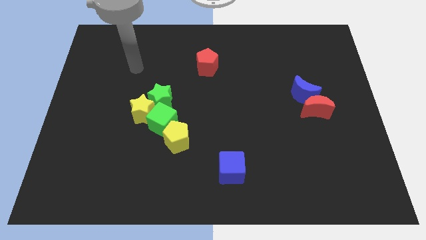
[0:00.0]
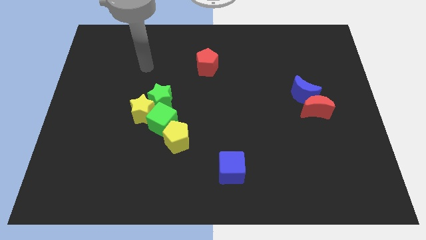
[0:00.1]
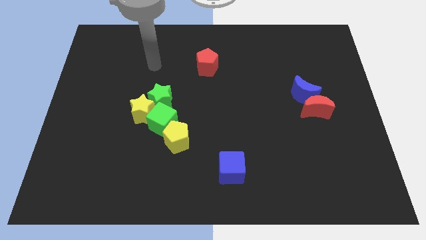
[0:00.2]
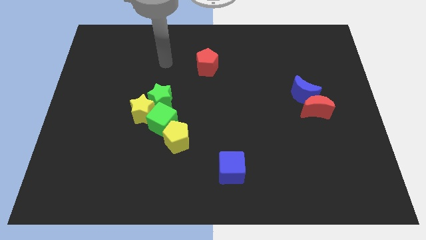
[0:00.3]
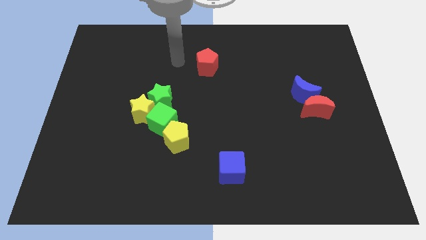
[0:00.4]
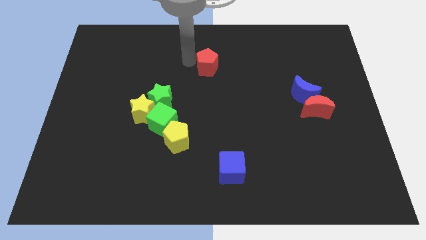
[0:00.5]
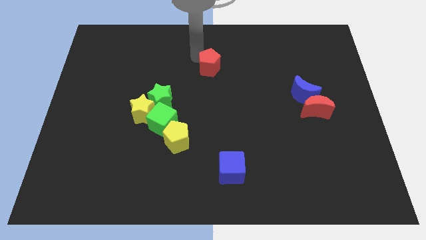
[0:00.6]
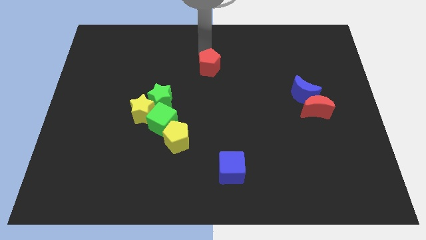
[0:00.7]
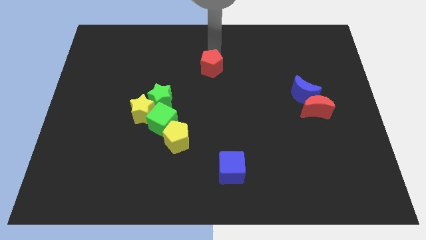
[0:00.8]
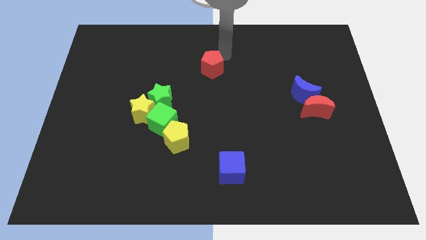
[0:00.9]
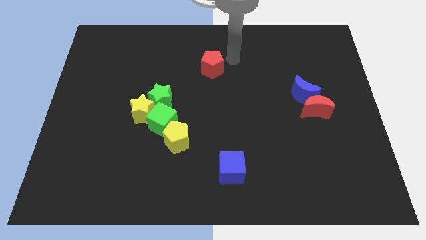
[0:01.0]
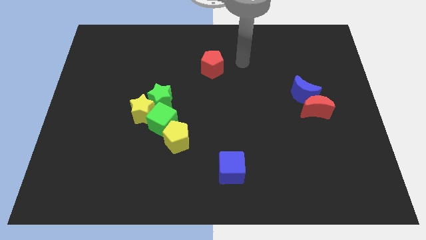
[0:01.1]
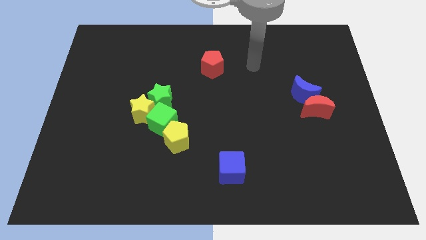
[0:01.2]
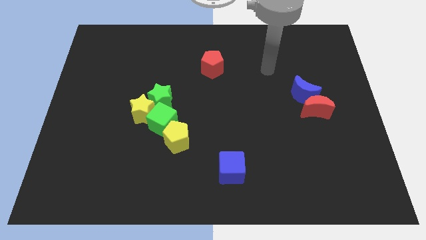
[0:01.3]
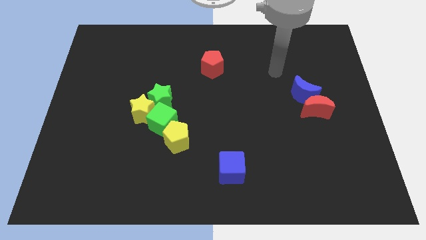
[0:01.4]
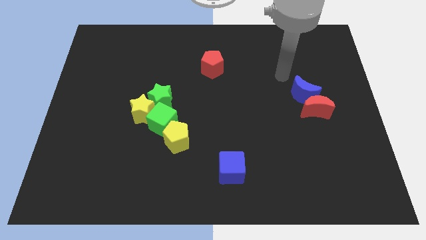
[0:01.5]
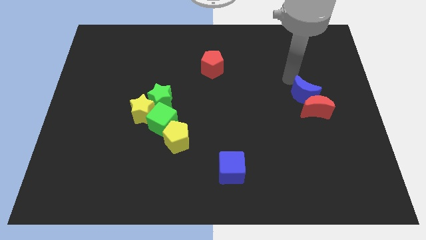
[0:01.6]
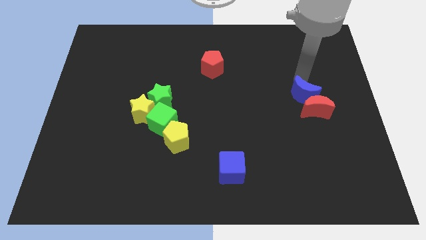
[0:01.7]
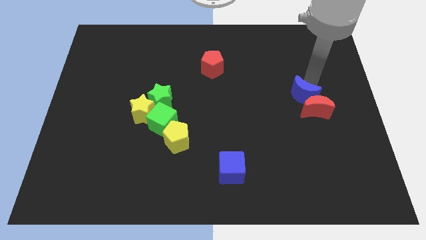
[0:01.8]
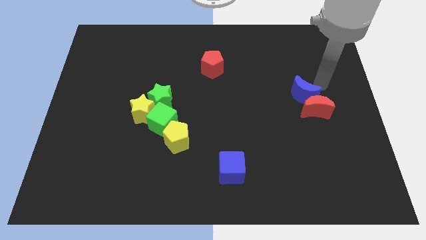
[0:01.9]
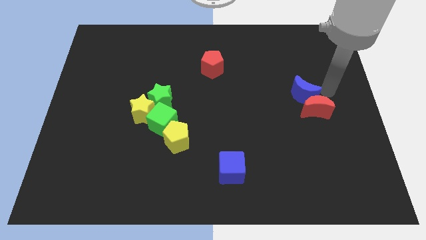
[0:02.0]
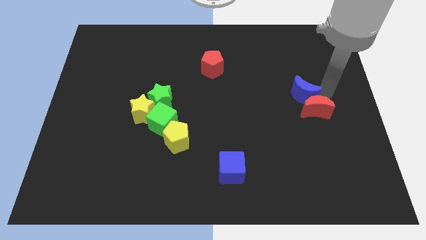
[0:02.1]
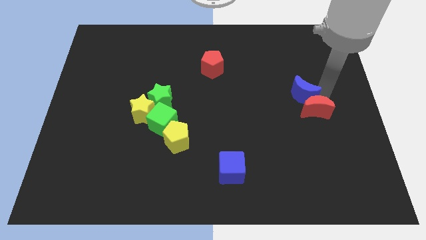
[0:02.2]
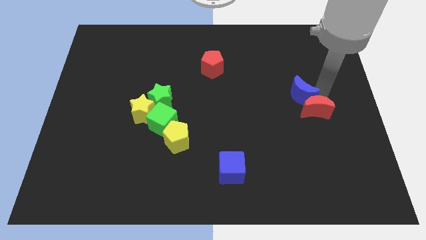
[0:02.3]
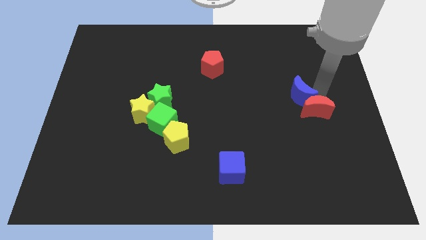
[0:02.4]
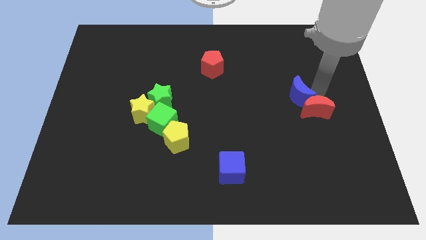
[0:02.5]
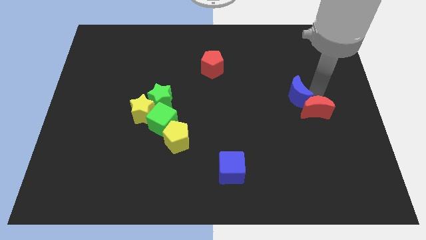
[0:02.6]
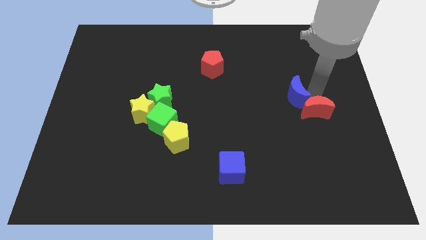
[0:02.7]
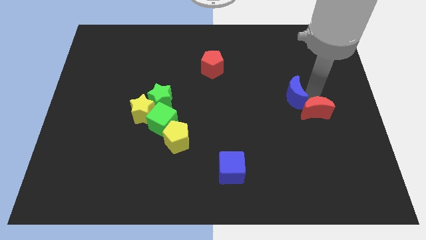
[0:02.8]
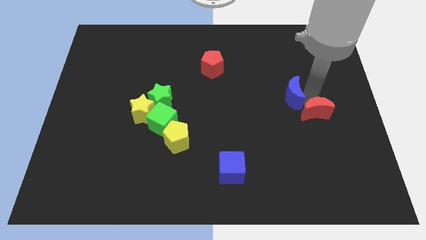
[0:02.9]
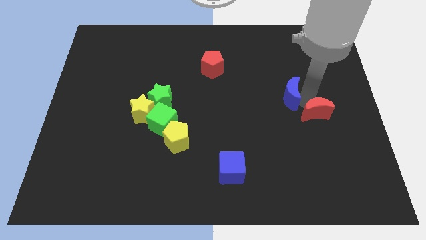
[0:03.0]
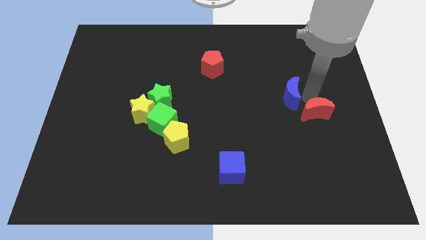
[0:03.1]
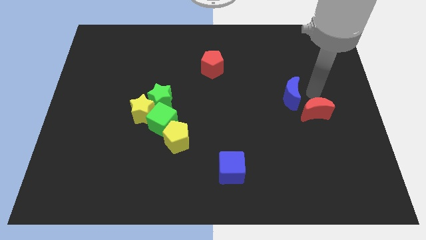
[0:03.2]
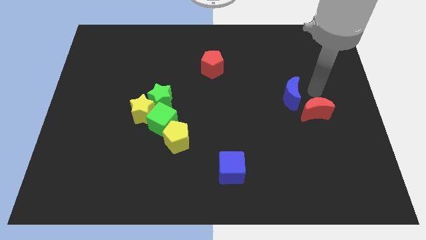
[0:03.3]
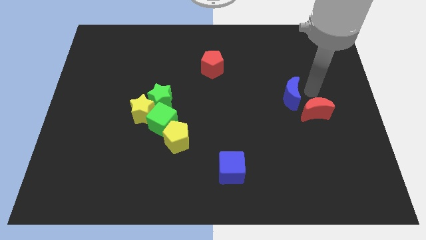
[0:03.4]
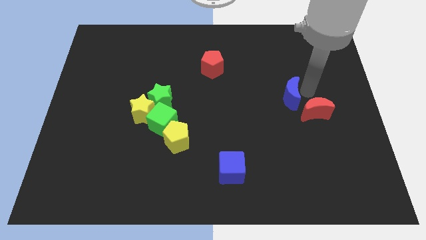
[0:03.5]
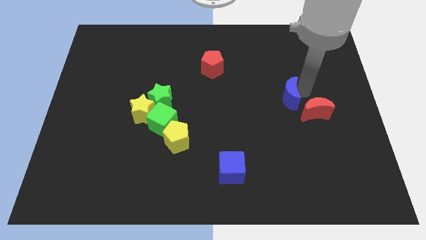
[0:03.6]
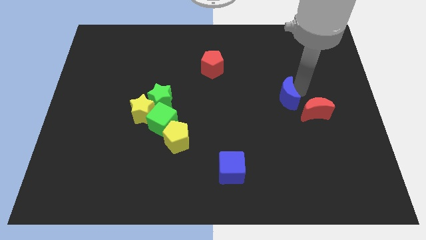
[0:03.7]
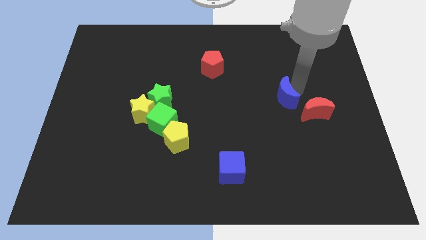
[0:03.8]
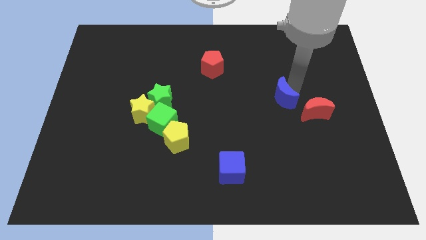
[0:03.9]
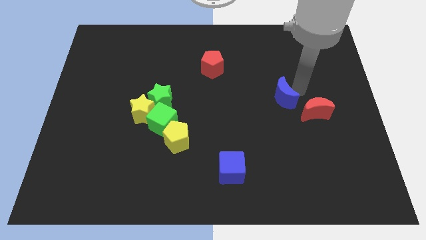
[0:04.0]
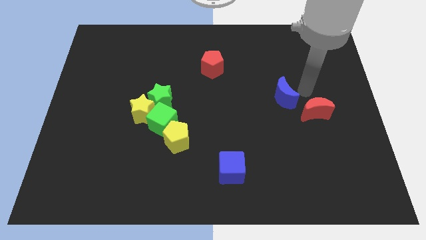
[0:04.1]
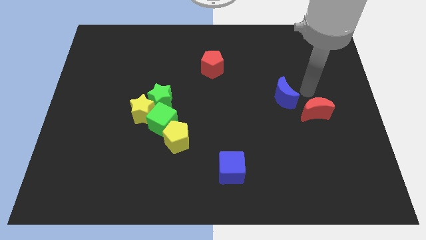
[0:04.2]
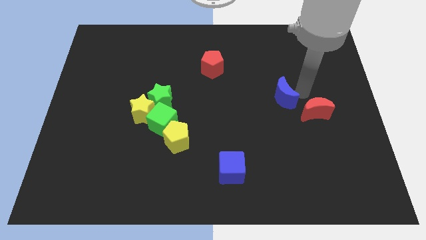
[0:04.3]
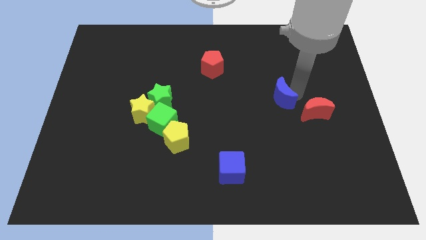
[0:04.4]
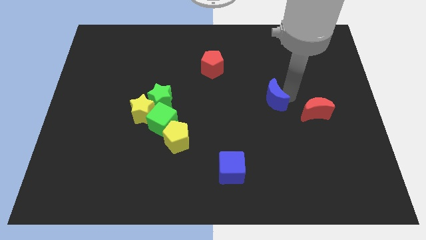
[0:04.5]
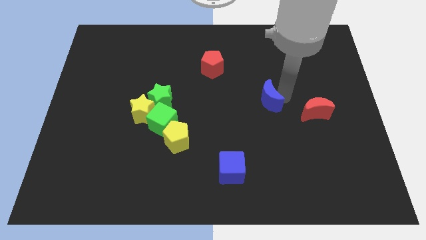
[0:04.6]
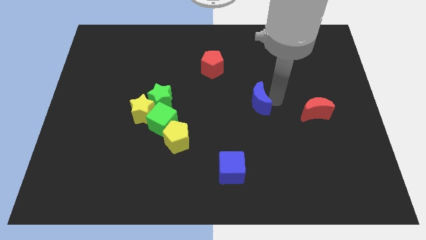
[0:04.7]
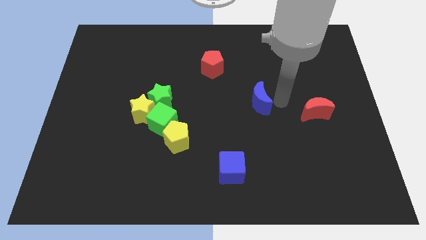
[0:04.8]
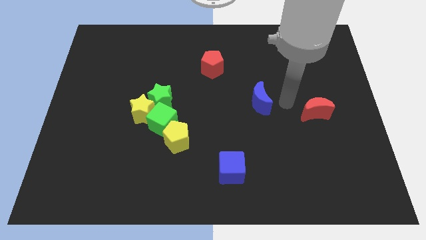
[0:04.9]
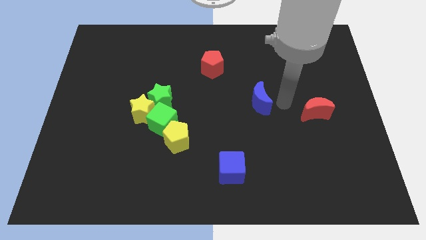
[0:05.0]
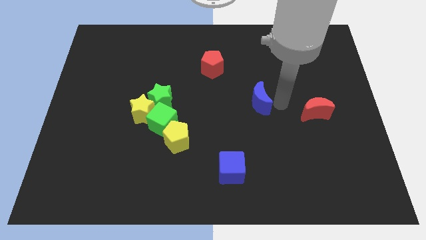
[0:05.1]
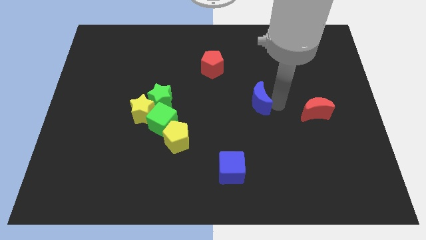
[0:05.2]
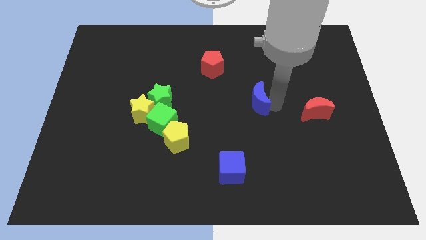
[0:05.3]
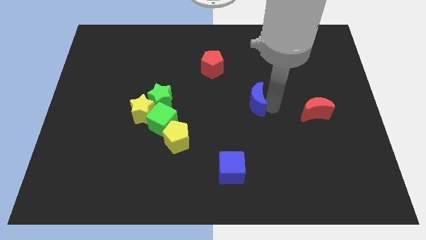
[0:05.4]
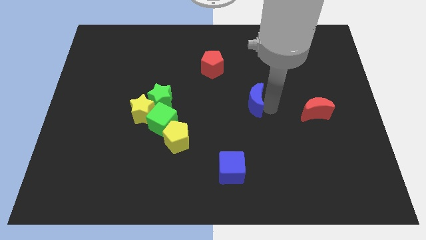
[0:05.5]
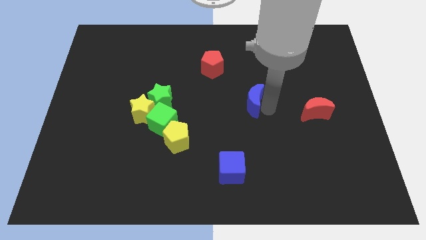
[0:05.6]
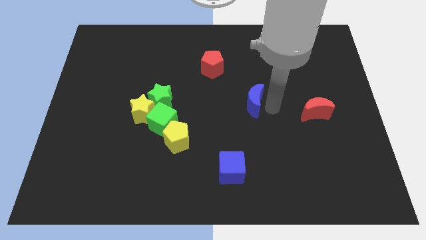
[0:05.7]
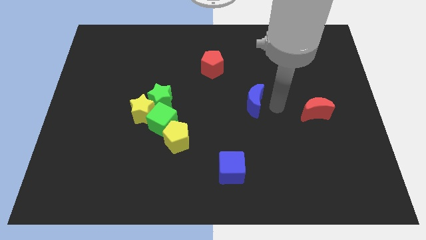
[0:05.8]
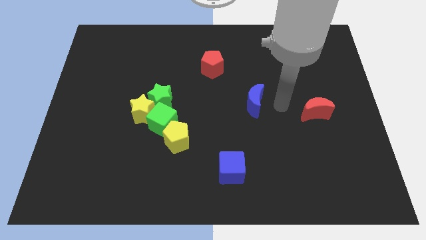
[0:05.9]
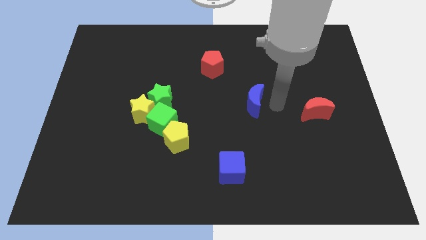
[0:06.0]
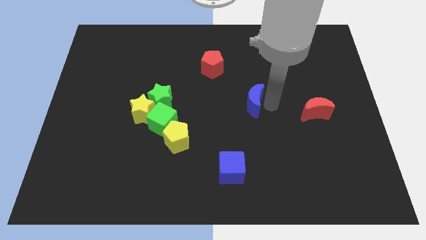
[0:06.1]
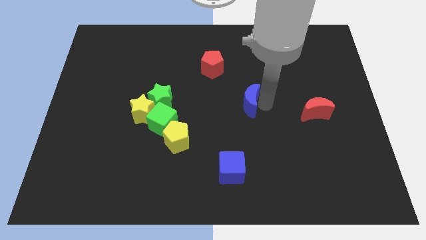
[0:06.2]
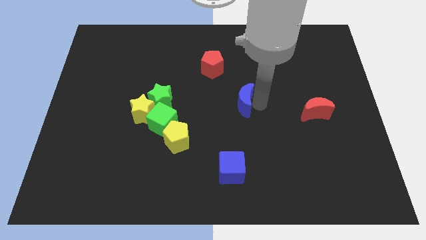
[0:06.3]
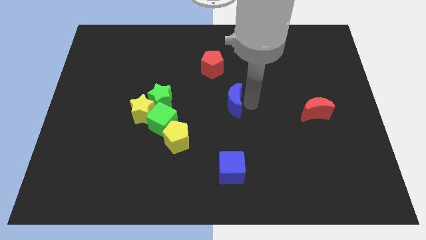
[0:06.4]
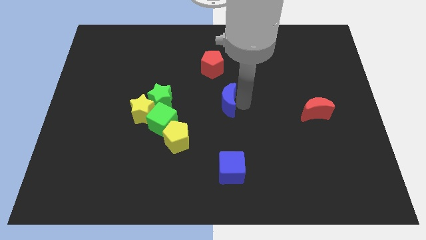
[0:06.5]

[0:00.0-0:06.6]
put the blue moon just right of the green star
